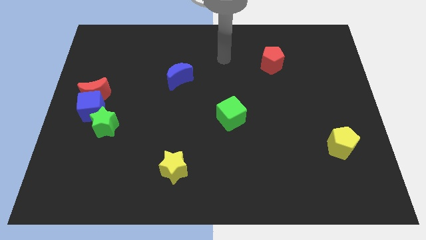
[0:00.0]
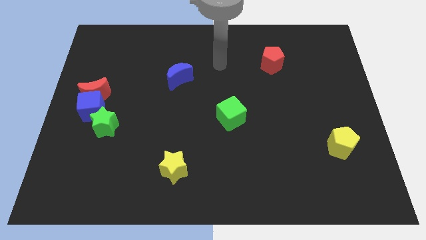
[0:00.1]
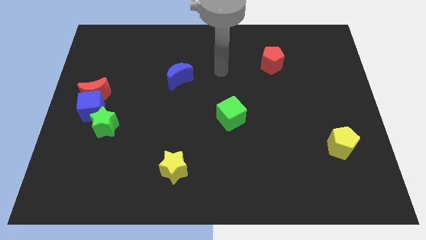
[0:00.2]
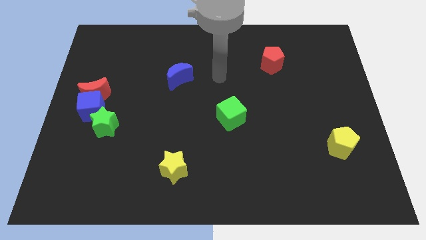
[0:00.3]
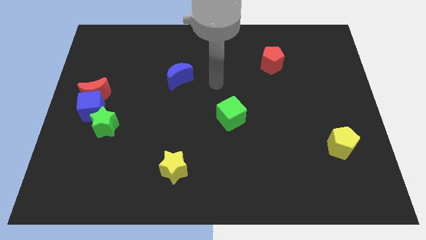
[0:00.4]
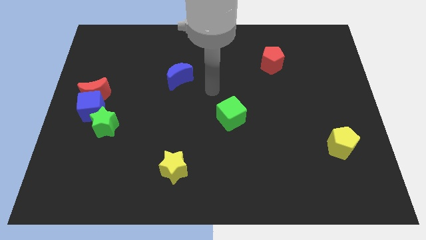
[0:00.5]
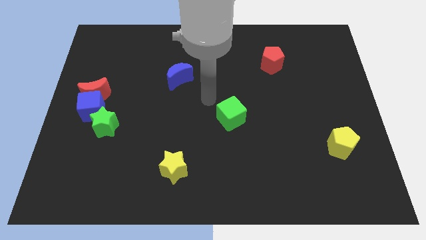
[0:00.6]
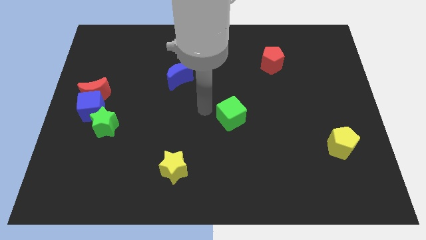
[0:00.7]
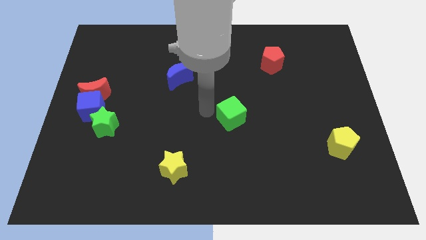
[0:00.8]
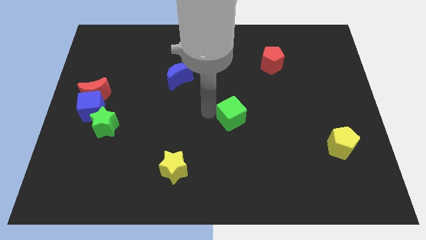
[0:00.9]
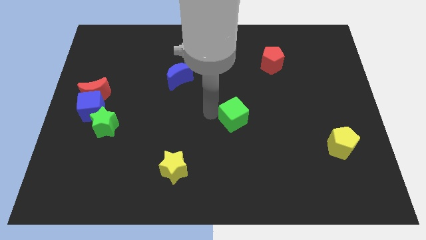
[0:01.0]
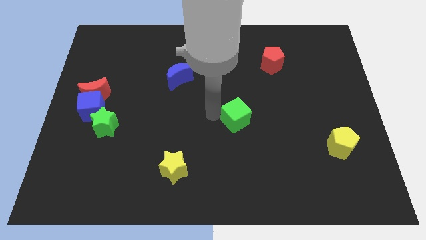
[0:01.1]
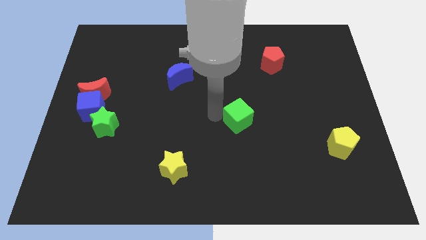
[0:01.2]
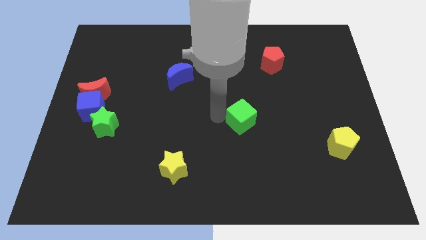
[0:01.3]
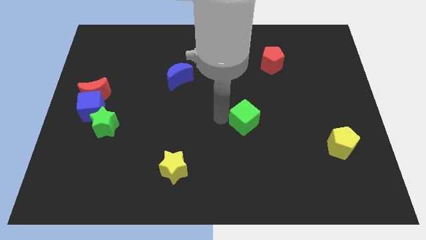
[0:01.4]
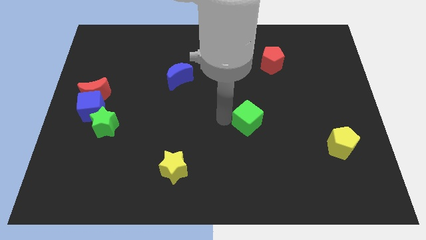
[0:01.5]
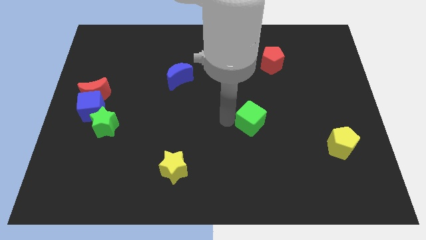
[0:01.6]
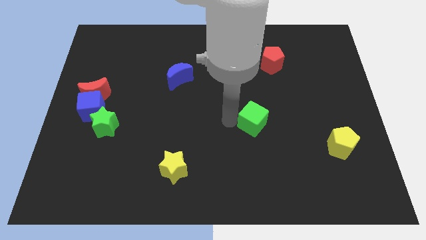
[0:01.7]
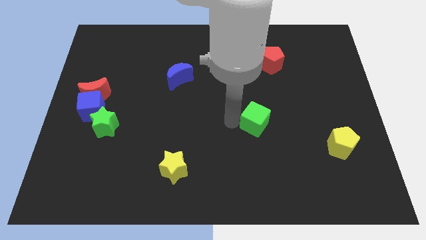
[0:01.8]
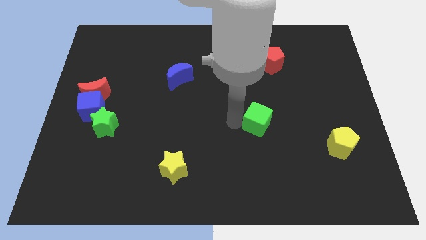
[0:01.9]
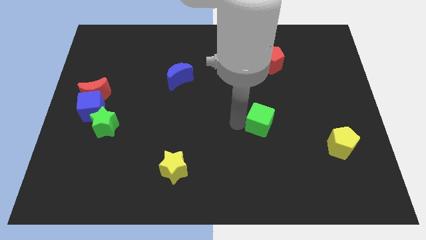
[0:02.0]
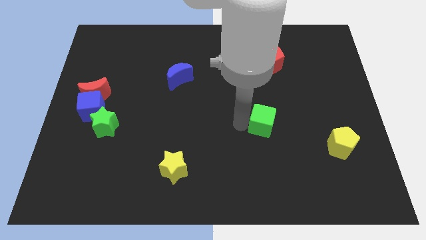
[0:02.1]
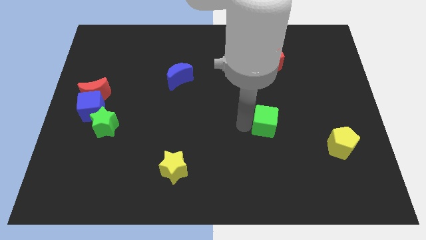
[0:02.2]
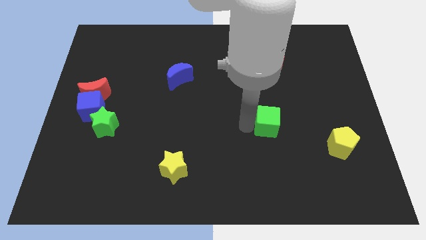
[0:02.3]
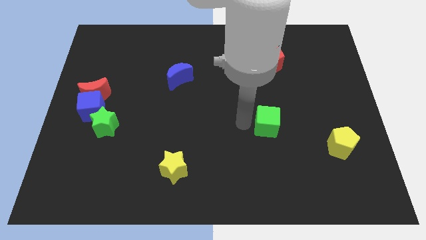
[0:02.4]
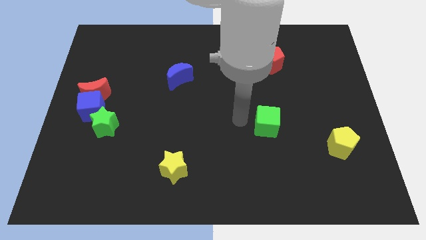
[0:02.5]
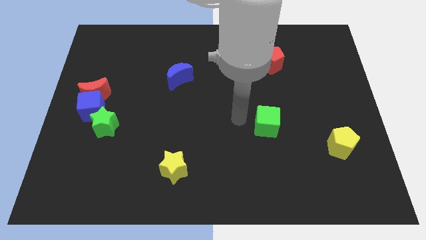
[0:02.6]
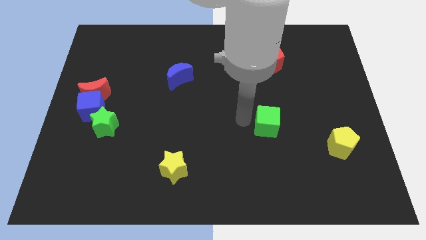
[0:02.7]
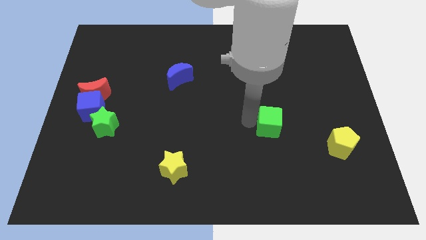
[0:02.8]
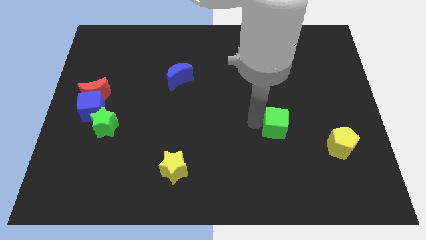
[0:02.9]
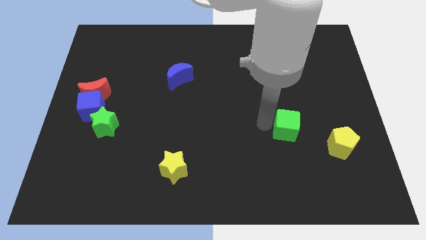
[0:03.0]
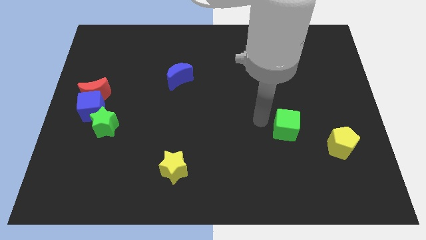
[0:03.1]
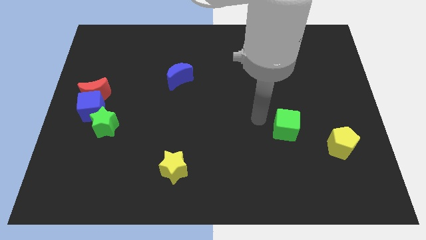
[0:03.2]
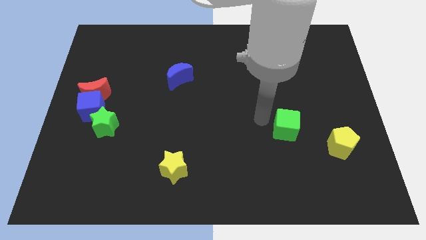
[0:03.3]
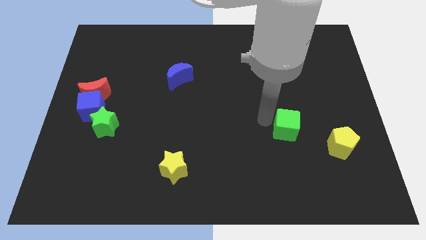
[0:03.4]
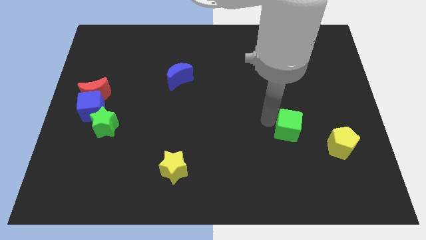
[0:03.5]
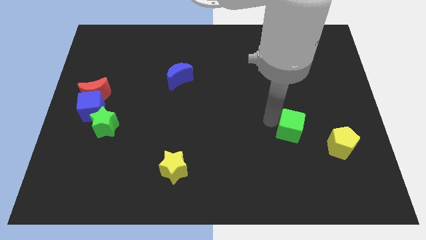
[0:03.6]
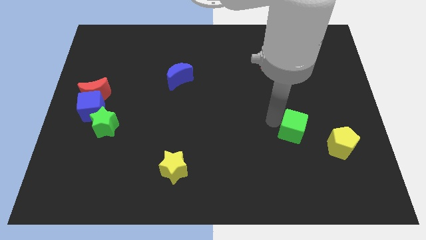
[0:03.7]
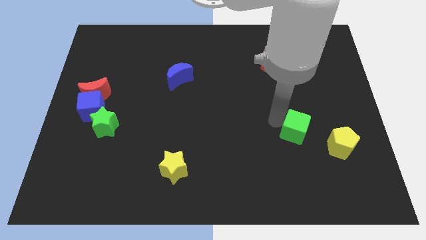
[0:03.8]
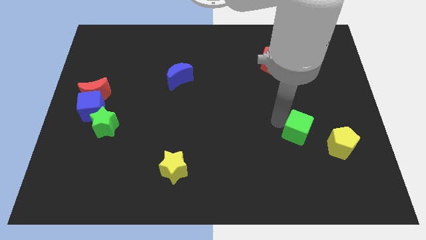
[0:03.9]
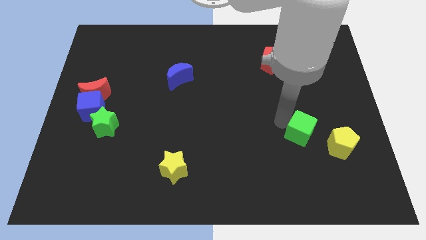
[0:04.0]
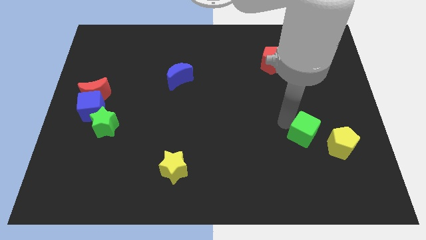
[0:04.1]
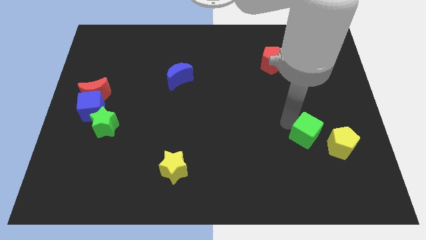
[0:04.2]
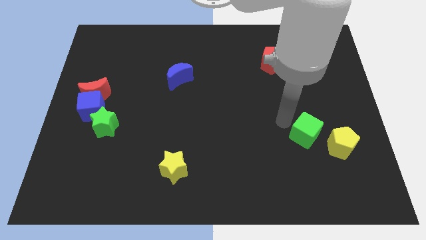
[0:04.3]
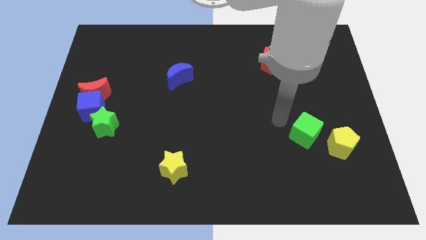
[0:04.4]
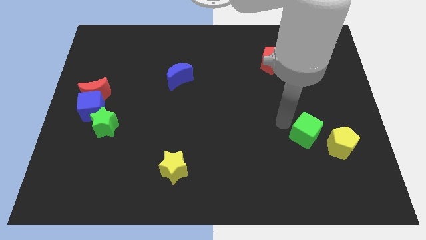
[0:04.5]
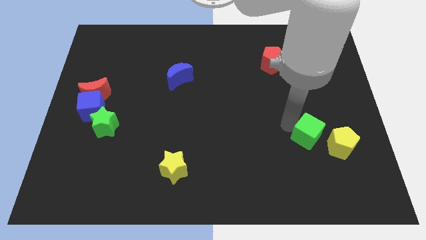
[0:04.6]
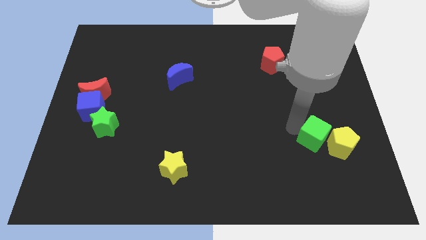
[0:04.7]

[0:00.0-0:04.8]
slide the green cube towards the yellow pentagon

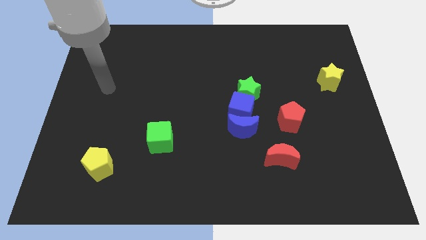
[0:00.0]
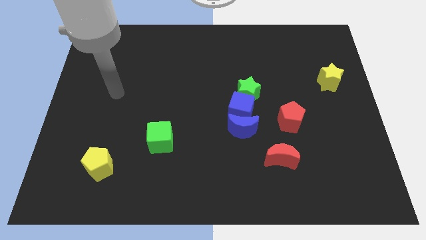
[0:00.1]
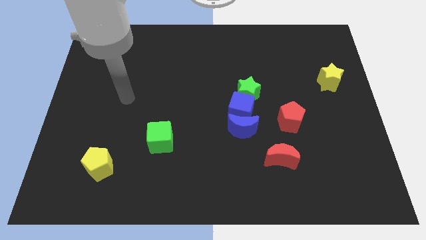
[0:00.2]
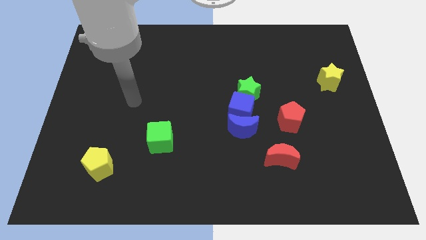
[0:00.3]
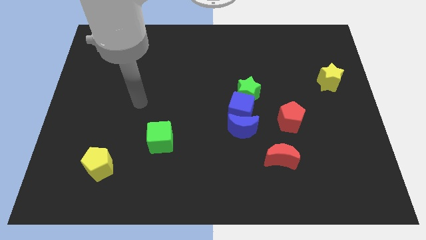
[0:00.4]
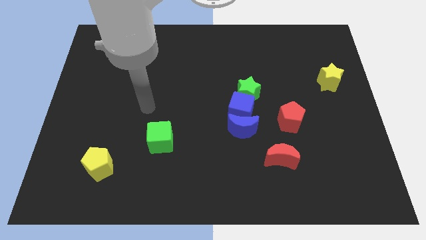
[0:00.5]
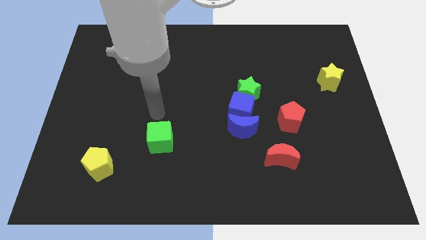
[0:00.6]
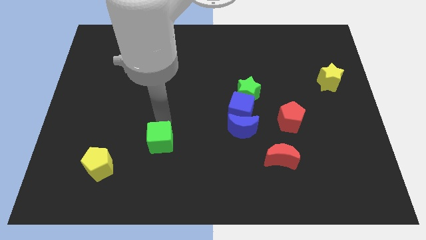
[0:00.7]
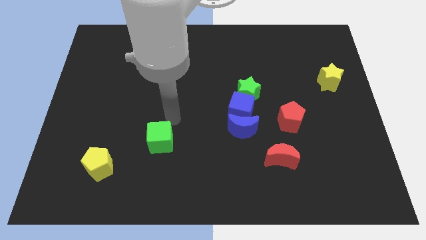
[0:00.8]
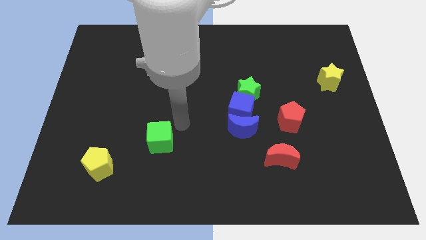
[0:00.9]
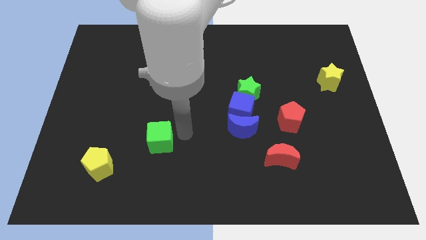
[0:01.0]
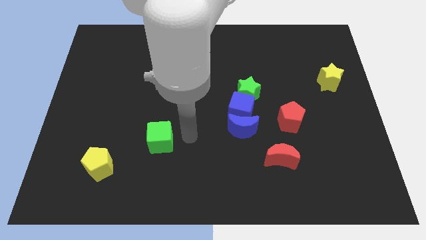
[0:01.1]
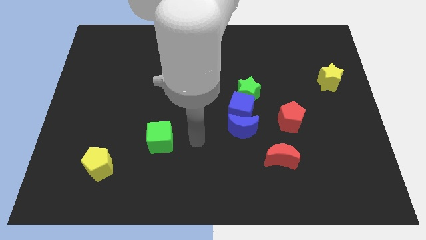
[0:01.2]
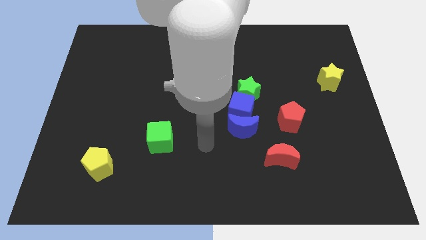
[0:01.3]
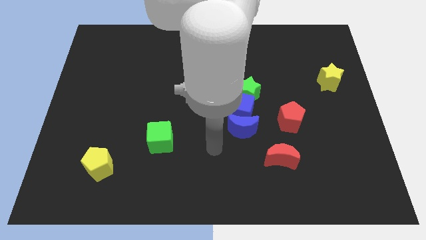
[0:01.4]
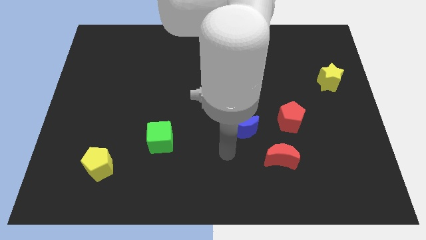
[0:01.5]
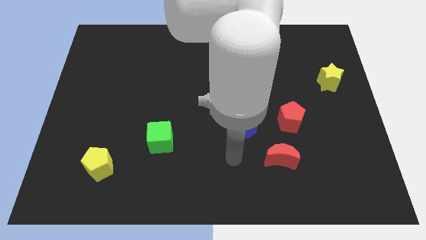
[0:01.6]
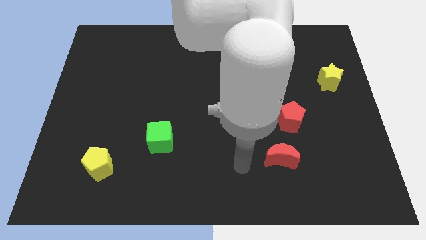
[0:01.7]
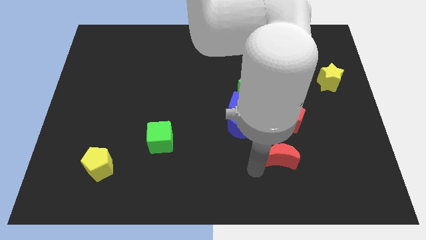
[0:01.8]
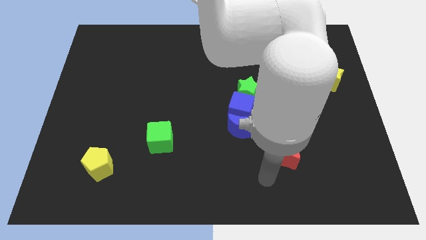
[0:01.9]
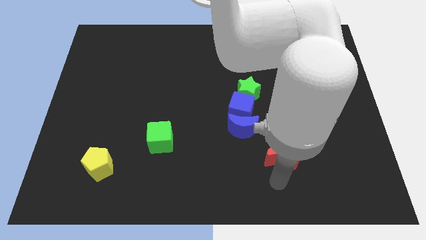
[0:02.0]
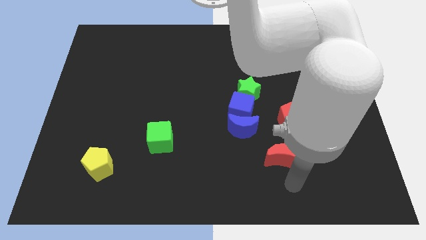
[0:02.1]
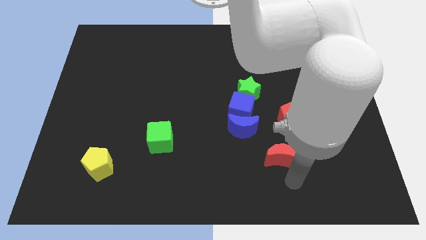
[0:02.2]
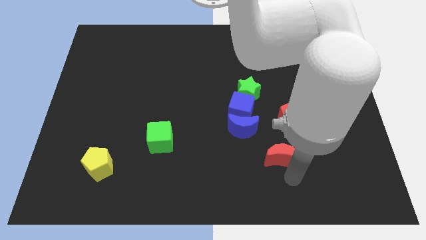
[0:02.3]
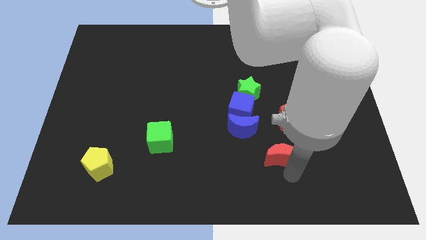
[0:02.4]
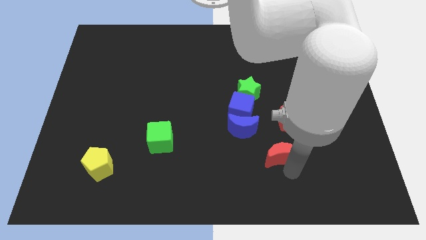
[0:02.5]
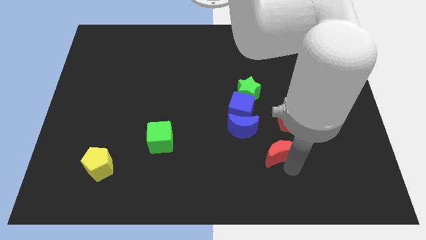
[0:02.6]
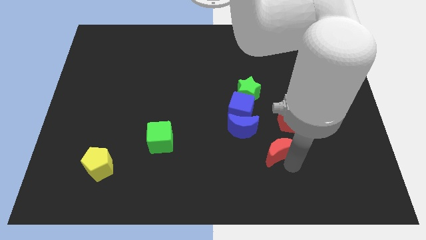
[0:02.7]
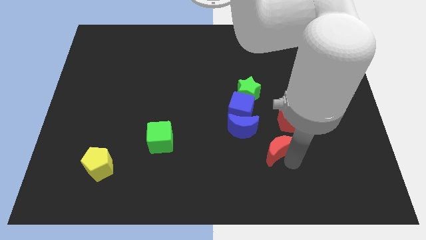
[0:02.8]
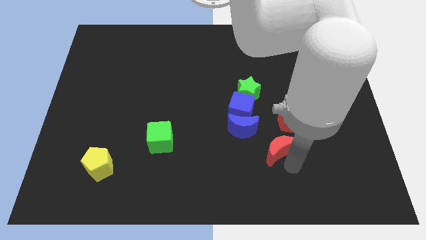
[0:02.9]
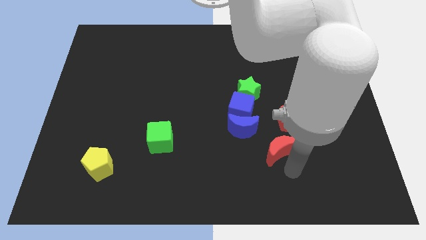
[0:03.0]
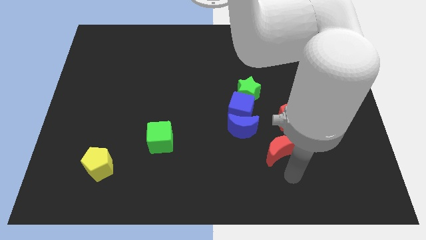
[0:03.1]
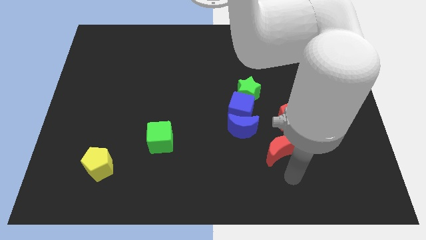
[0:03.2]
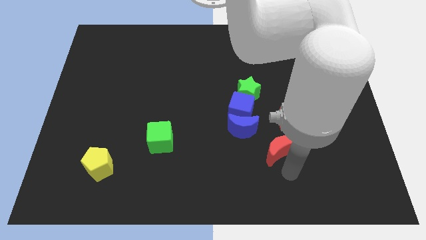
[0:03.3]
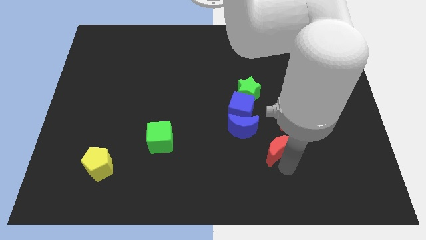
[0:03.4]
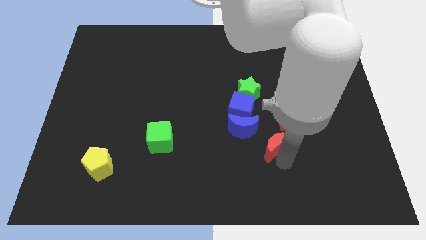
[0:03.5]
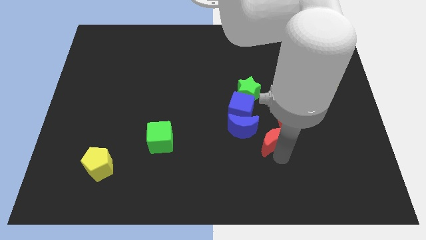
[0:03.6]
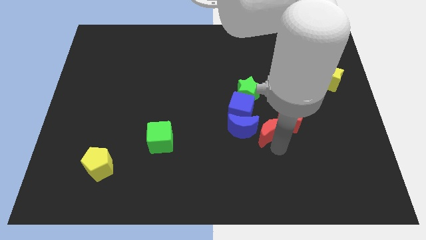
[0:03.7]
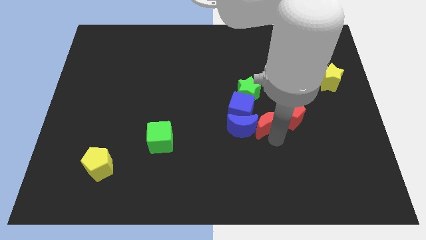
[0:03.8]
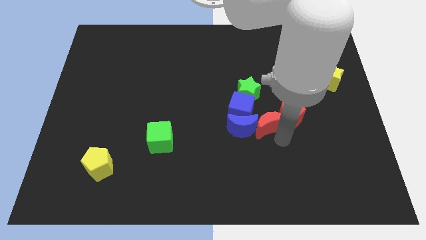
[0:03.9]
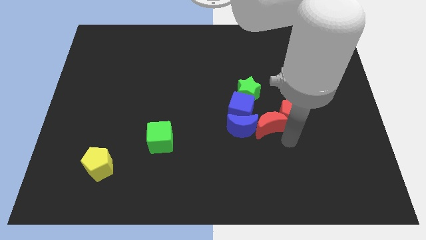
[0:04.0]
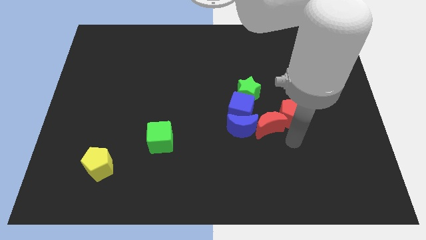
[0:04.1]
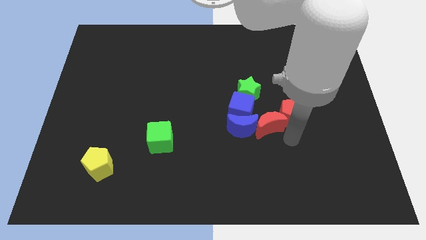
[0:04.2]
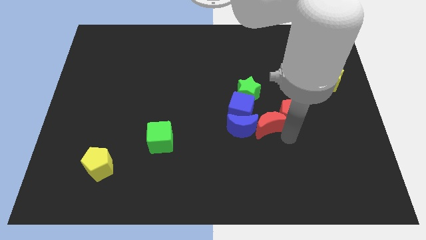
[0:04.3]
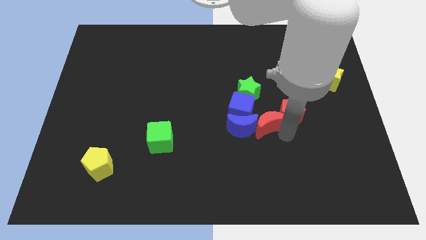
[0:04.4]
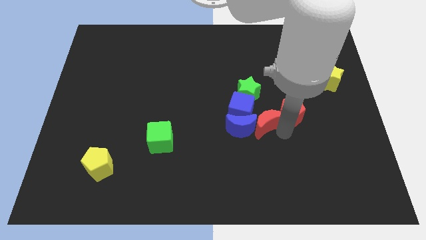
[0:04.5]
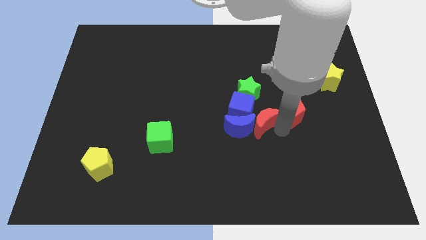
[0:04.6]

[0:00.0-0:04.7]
slide the red moon towards the blue cube
